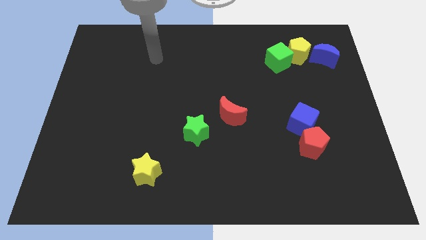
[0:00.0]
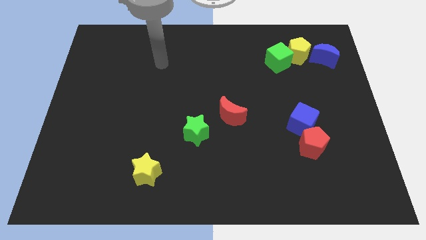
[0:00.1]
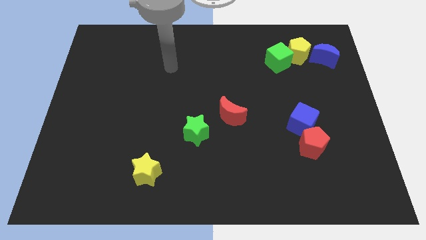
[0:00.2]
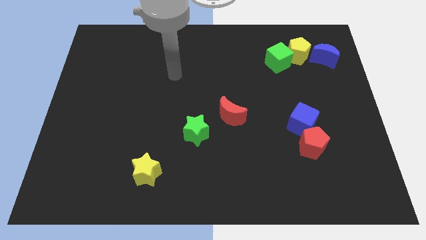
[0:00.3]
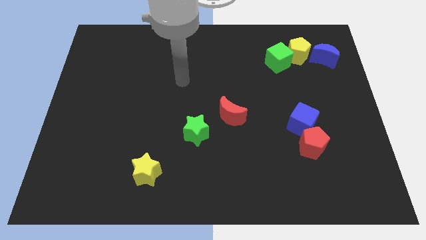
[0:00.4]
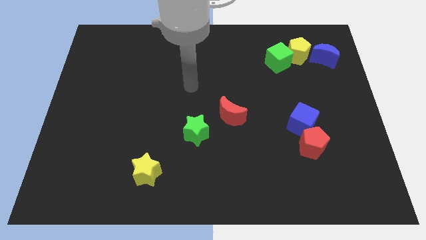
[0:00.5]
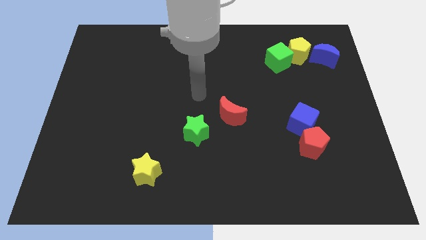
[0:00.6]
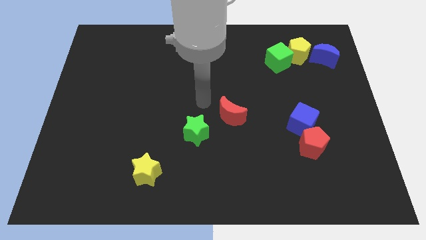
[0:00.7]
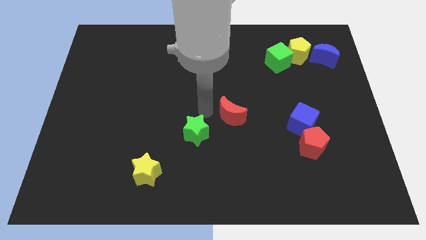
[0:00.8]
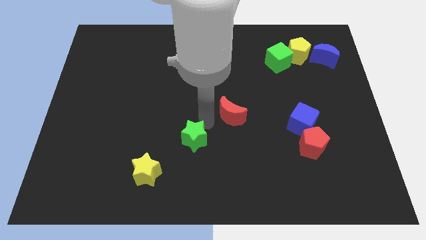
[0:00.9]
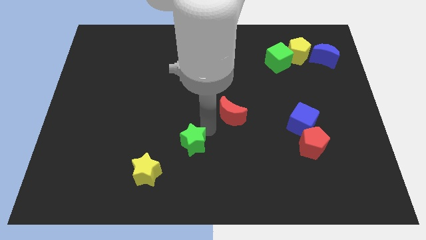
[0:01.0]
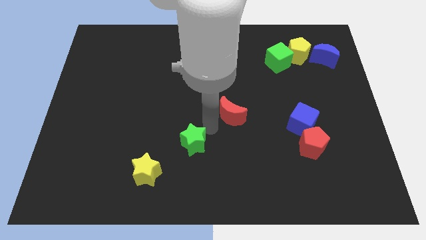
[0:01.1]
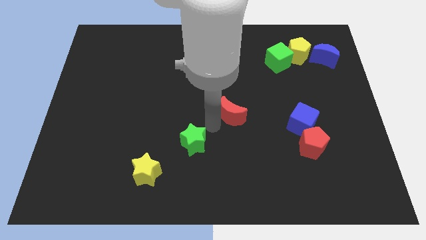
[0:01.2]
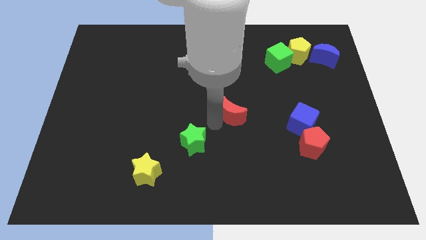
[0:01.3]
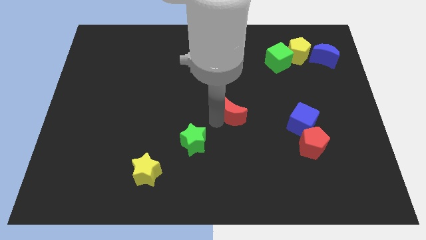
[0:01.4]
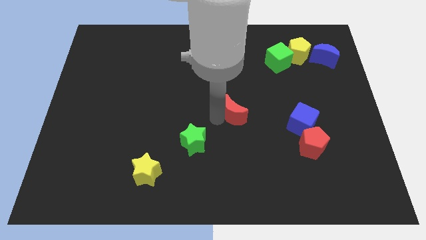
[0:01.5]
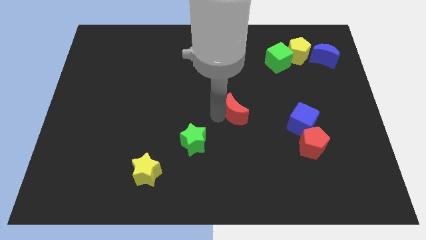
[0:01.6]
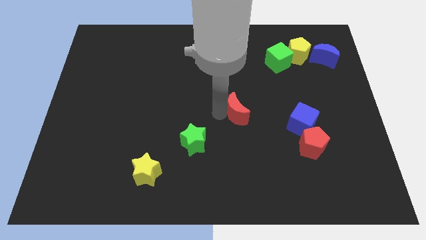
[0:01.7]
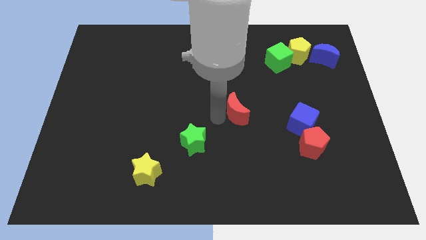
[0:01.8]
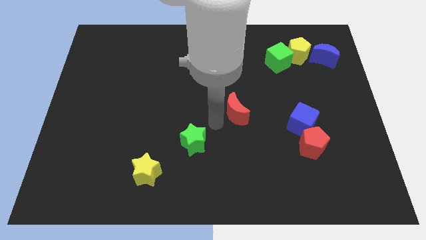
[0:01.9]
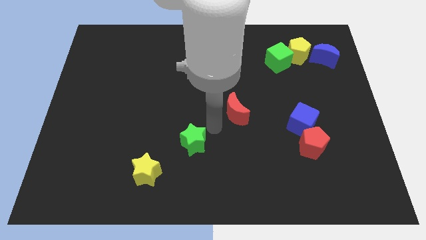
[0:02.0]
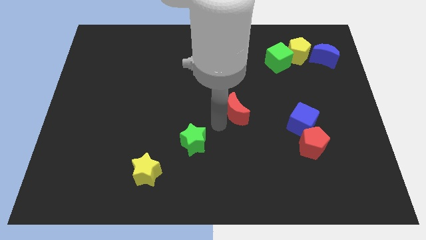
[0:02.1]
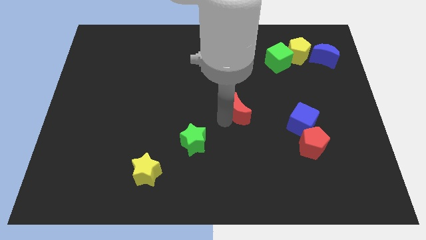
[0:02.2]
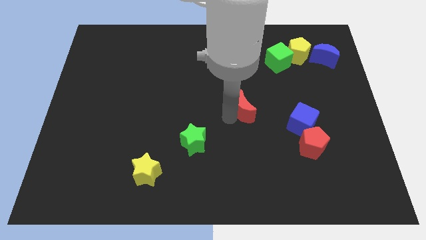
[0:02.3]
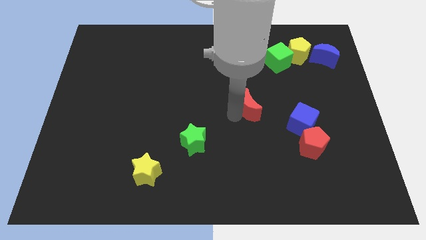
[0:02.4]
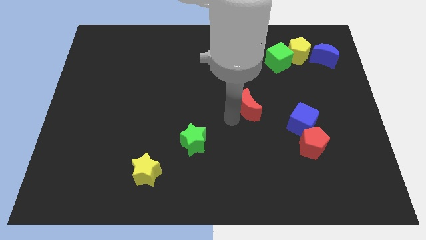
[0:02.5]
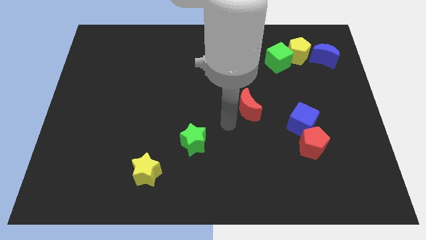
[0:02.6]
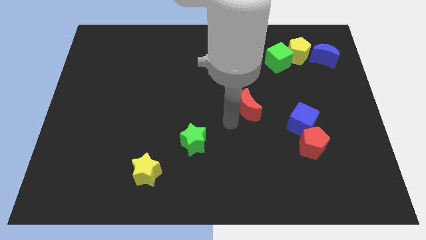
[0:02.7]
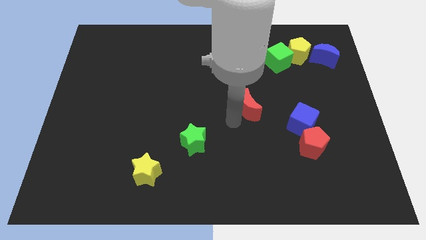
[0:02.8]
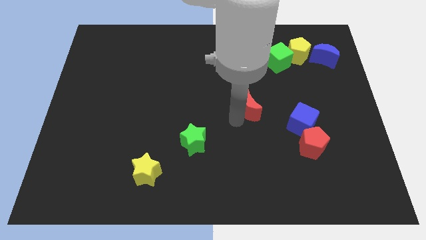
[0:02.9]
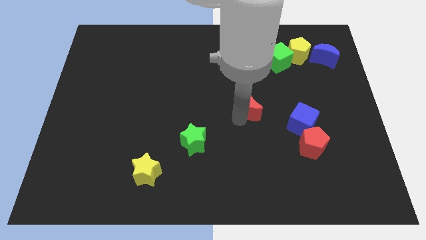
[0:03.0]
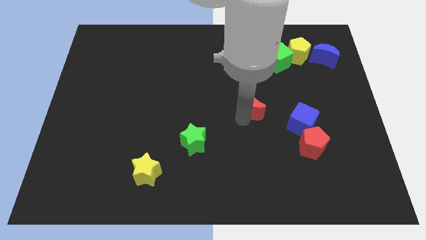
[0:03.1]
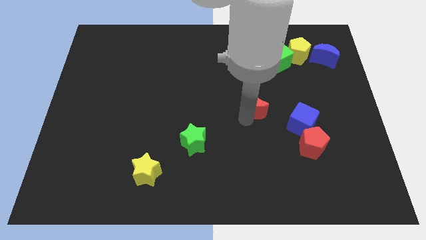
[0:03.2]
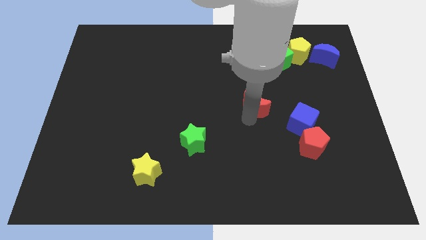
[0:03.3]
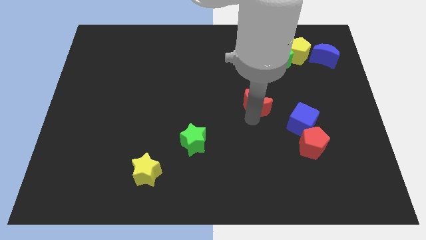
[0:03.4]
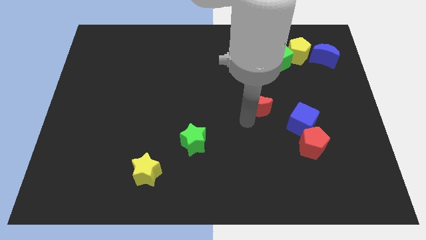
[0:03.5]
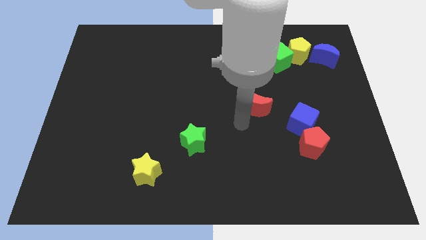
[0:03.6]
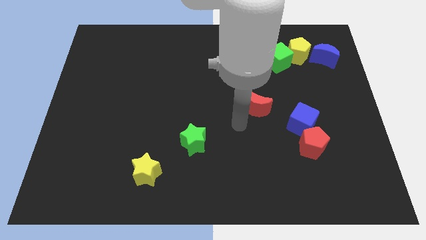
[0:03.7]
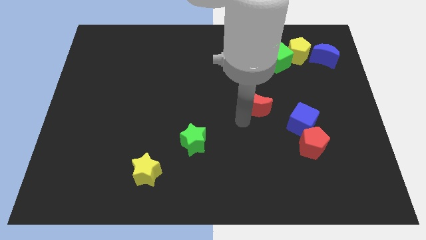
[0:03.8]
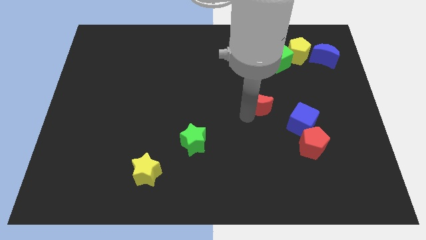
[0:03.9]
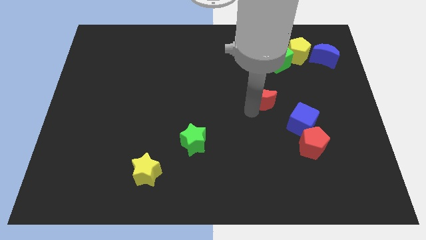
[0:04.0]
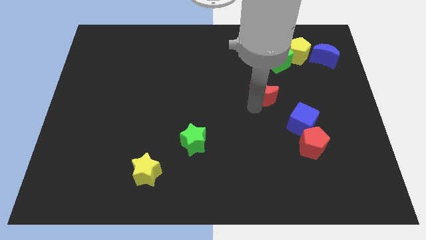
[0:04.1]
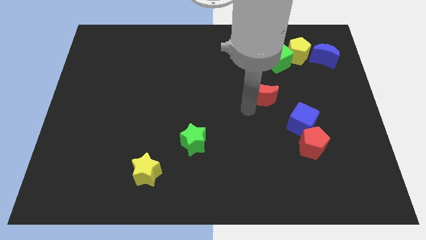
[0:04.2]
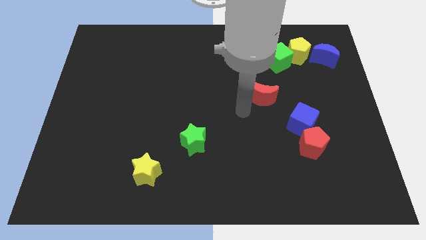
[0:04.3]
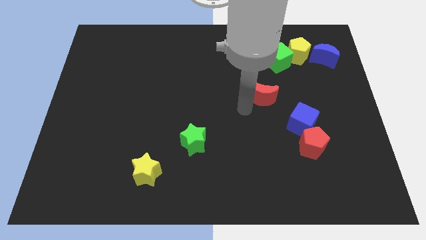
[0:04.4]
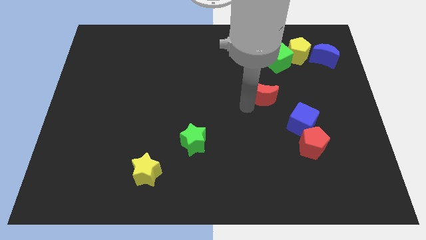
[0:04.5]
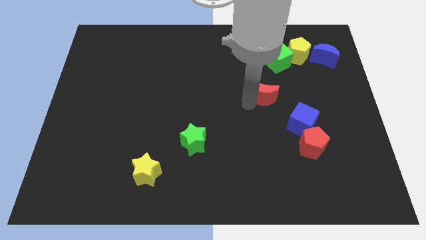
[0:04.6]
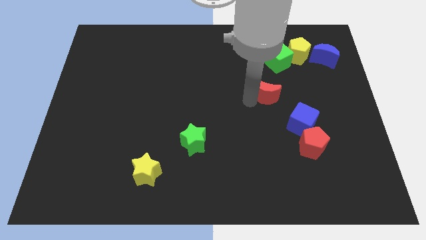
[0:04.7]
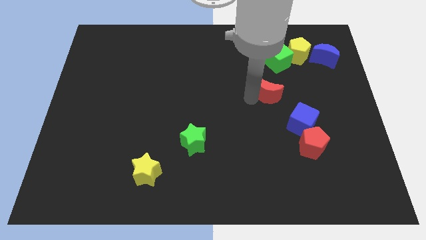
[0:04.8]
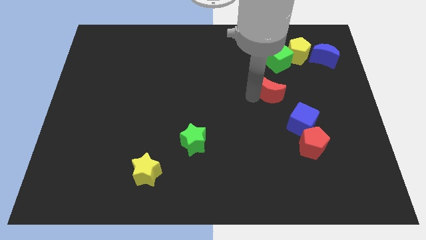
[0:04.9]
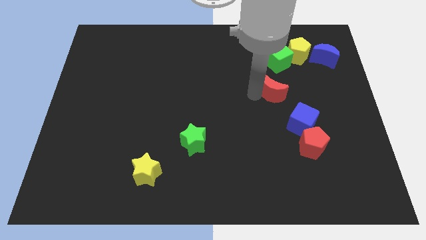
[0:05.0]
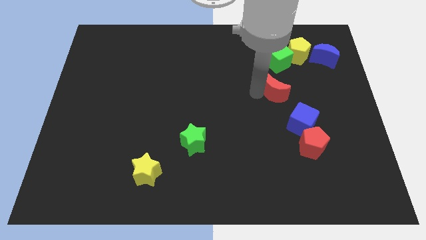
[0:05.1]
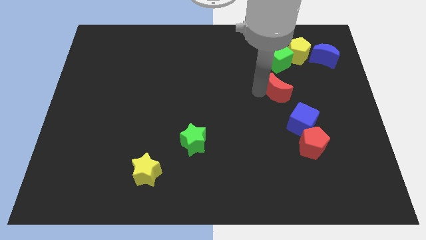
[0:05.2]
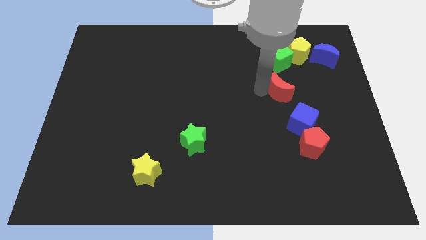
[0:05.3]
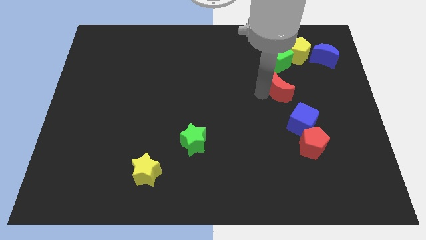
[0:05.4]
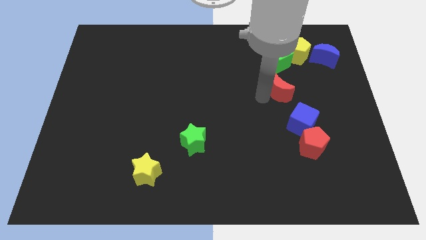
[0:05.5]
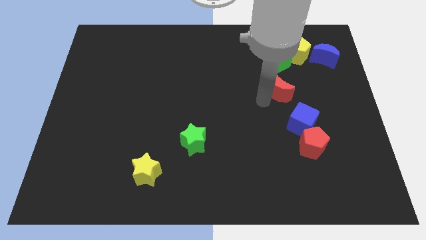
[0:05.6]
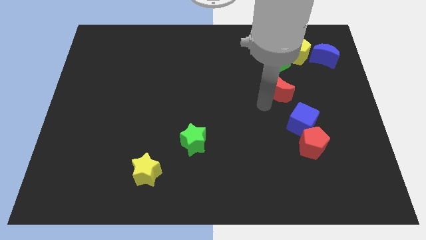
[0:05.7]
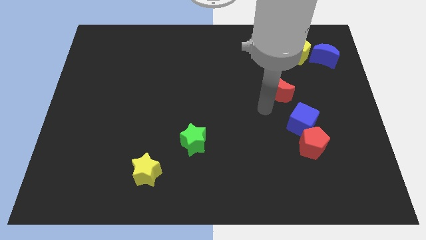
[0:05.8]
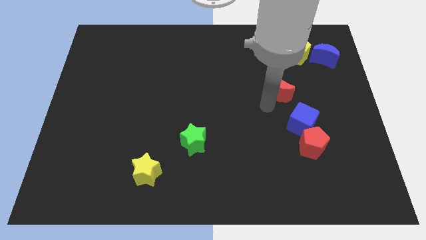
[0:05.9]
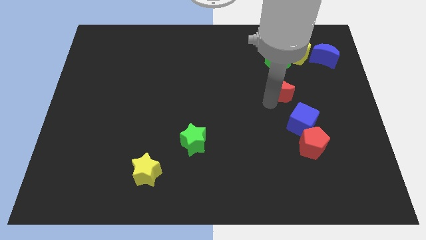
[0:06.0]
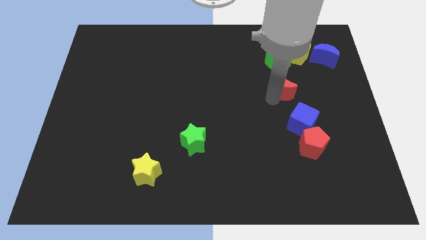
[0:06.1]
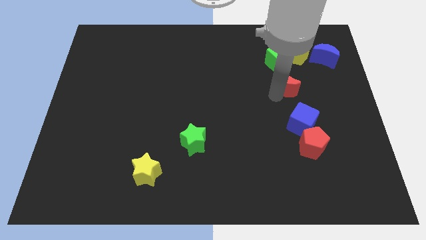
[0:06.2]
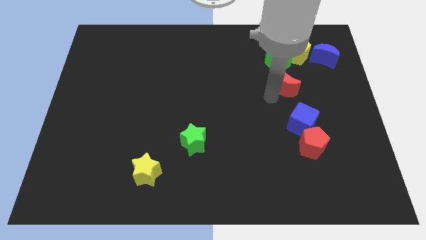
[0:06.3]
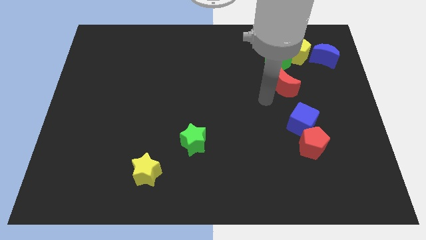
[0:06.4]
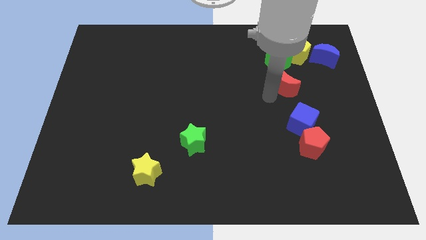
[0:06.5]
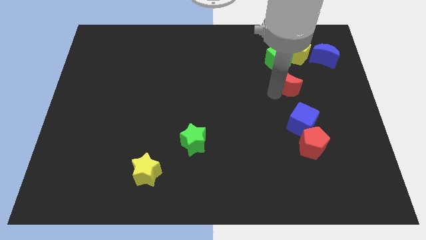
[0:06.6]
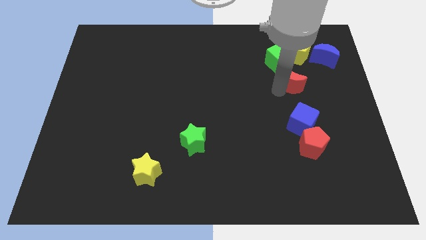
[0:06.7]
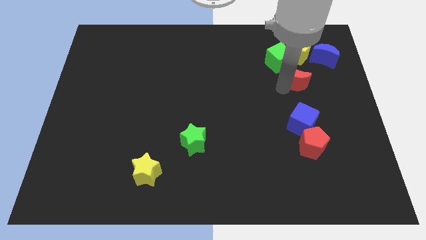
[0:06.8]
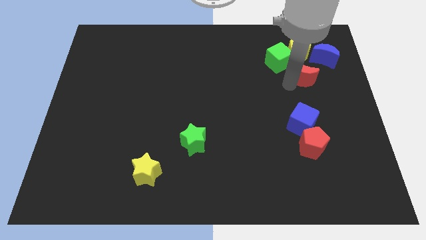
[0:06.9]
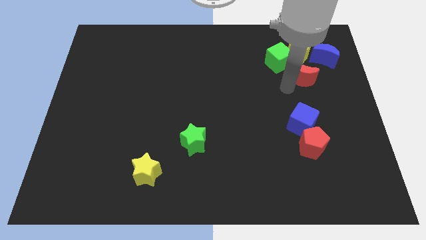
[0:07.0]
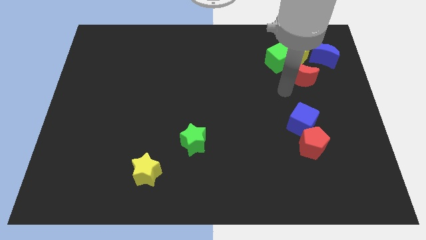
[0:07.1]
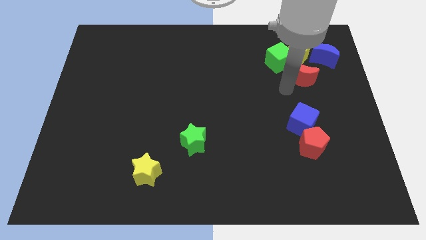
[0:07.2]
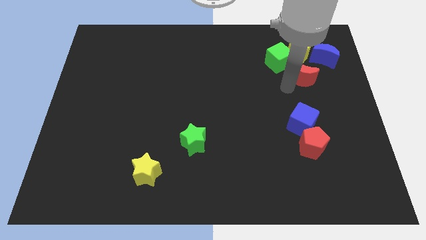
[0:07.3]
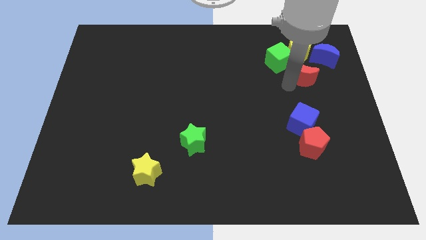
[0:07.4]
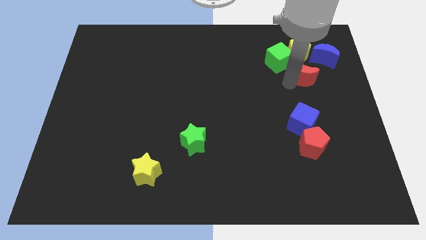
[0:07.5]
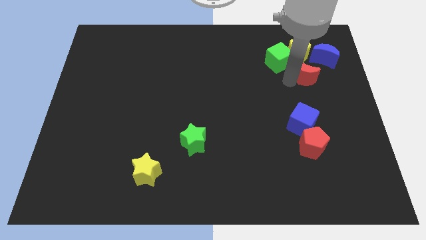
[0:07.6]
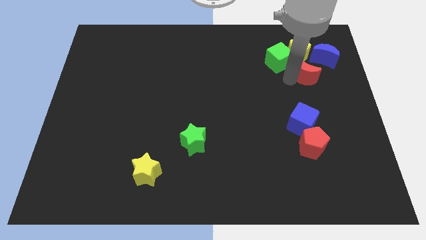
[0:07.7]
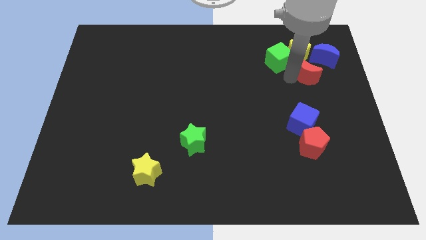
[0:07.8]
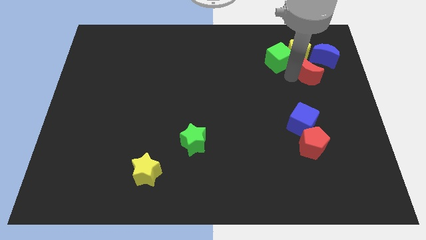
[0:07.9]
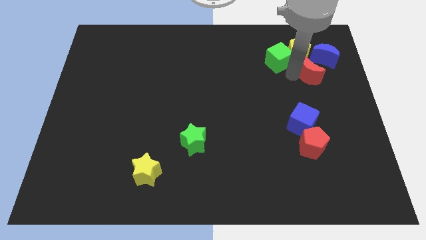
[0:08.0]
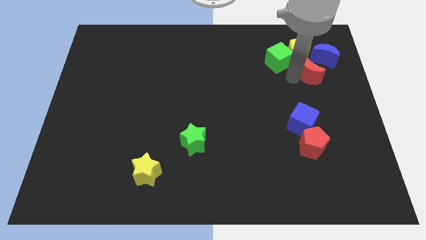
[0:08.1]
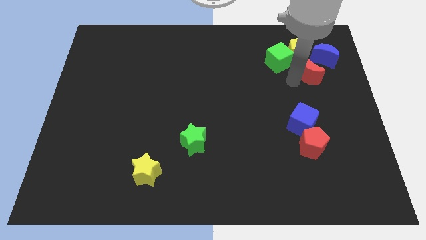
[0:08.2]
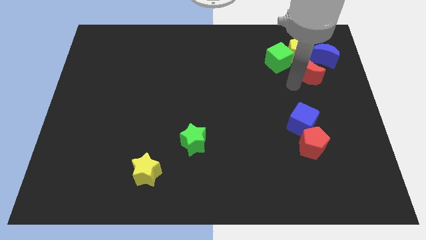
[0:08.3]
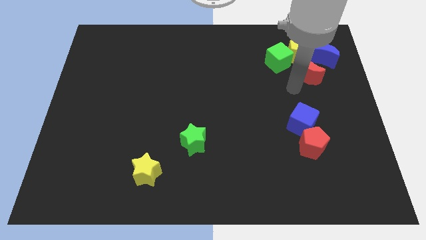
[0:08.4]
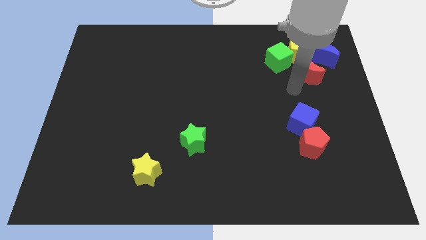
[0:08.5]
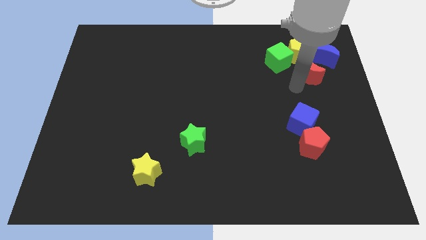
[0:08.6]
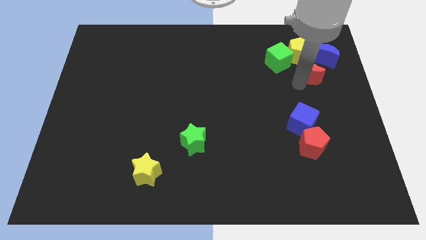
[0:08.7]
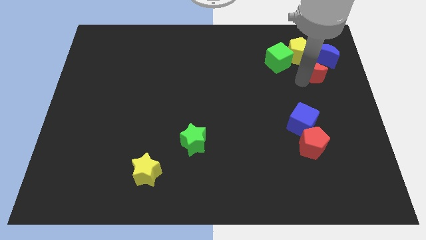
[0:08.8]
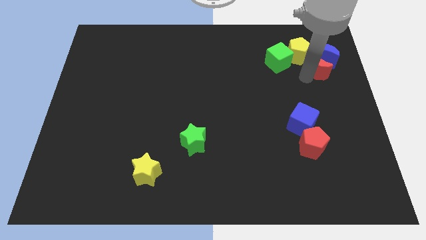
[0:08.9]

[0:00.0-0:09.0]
put the red moon next to the blue moon
